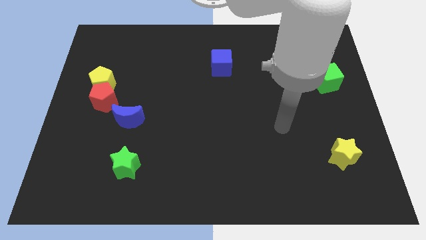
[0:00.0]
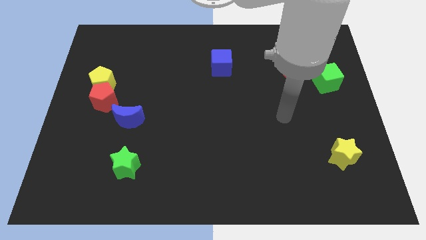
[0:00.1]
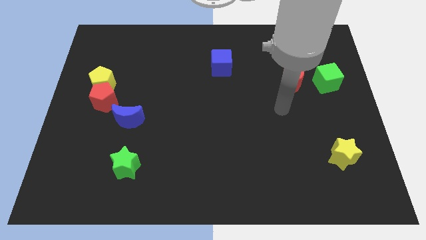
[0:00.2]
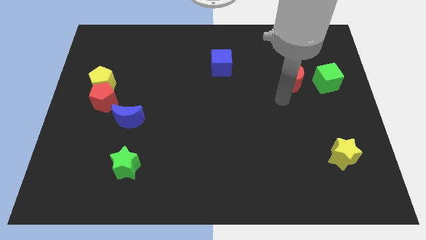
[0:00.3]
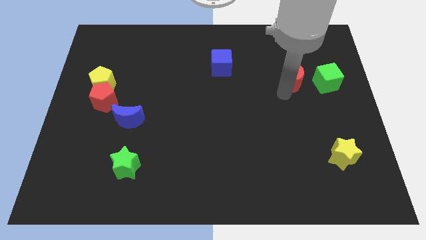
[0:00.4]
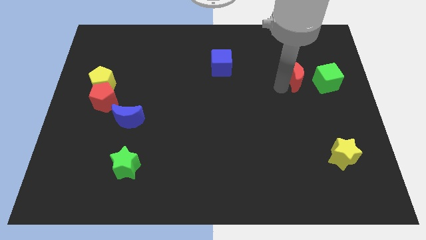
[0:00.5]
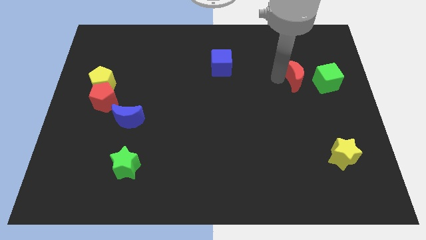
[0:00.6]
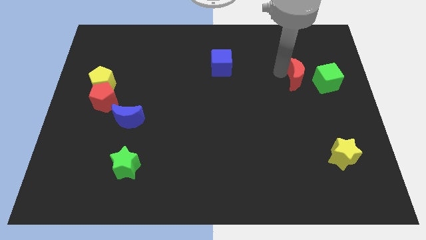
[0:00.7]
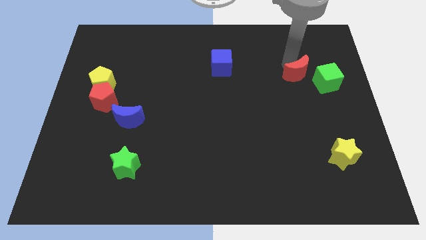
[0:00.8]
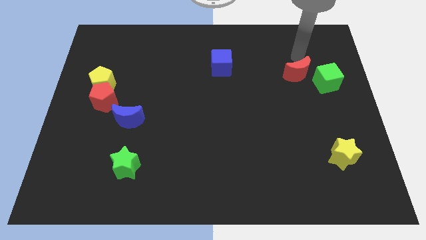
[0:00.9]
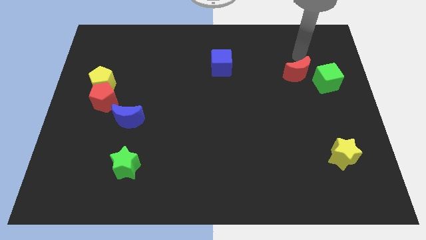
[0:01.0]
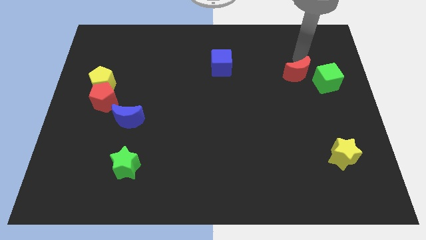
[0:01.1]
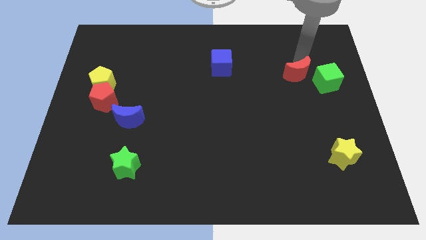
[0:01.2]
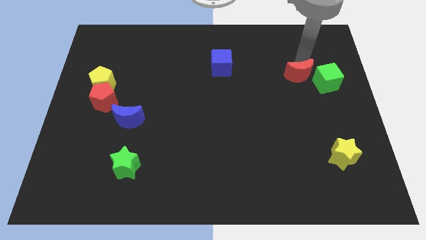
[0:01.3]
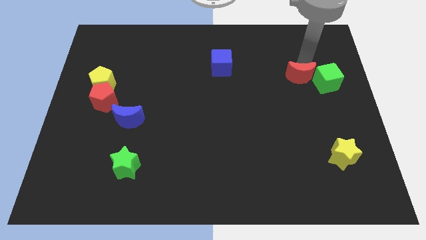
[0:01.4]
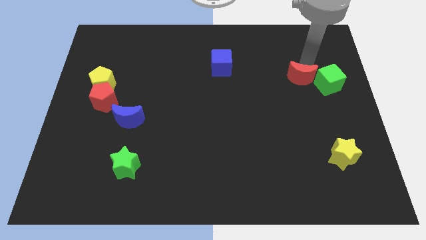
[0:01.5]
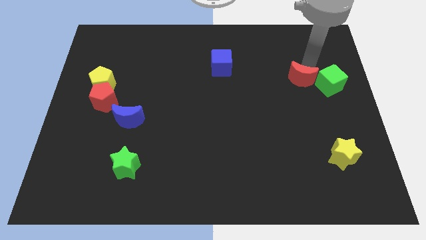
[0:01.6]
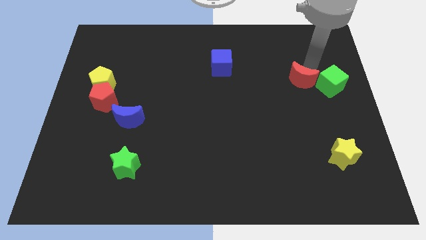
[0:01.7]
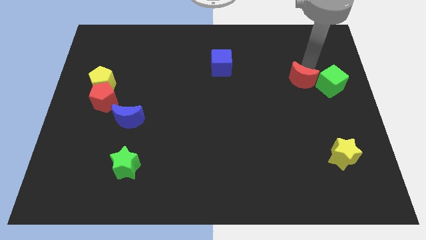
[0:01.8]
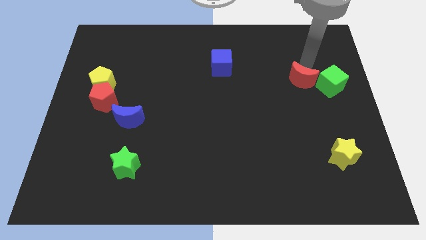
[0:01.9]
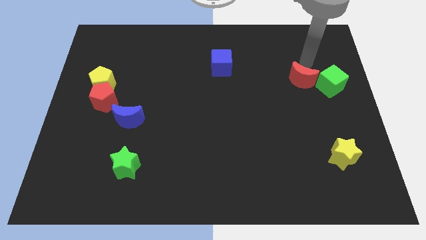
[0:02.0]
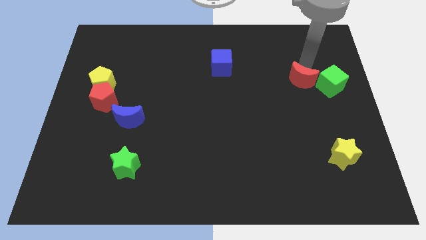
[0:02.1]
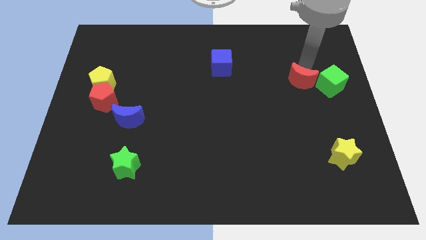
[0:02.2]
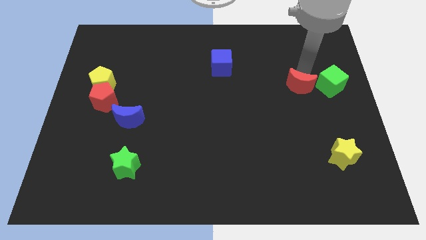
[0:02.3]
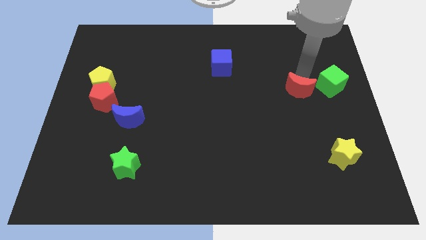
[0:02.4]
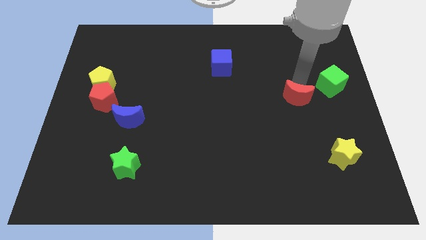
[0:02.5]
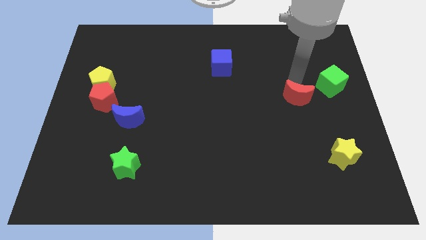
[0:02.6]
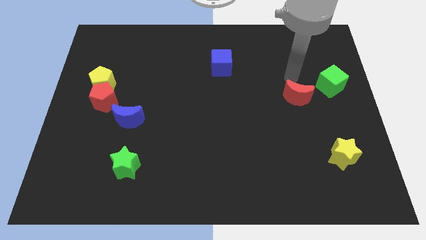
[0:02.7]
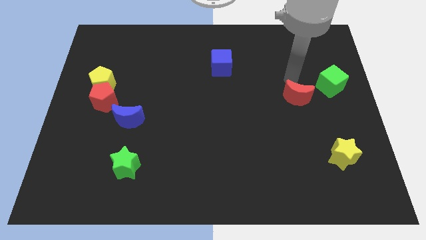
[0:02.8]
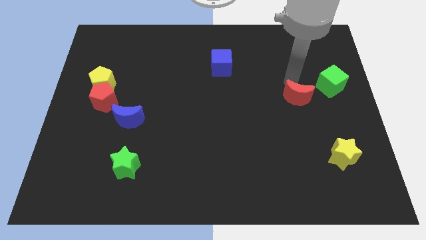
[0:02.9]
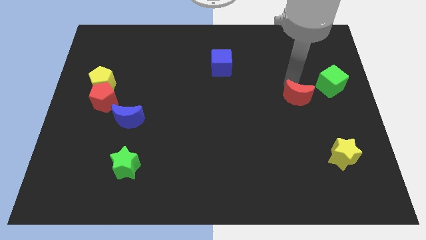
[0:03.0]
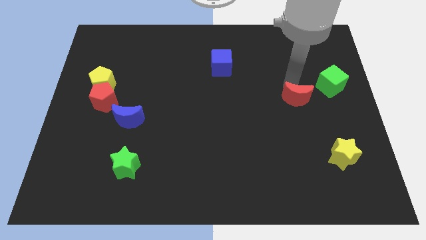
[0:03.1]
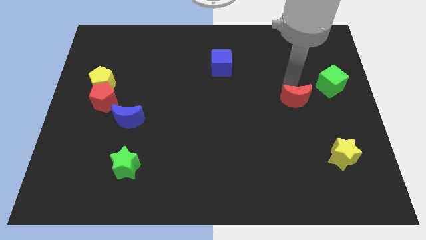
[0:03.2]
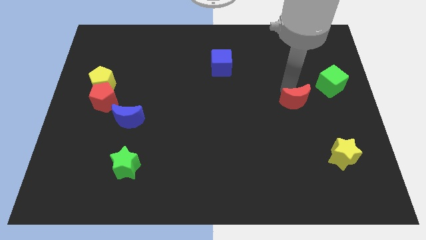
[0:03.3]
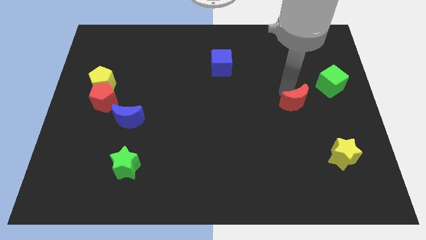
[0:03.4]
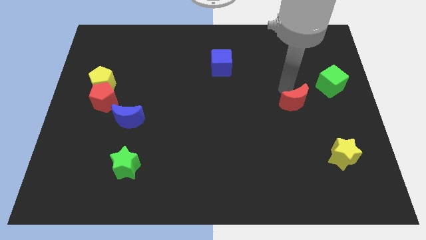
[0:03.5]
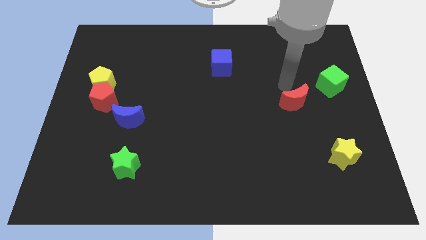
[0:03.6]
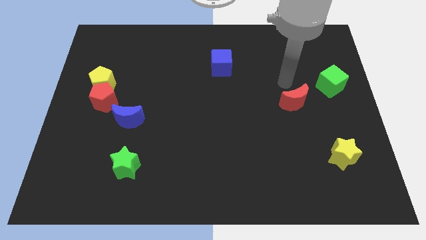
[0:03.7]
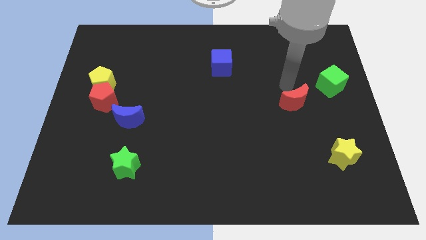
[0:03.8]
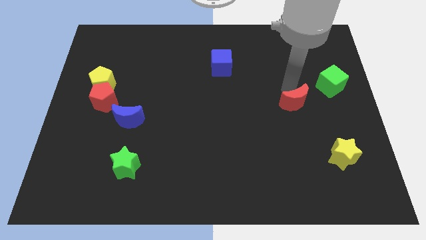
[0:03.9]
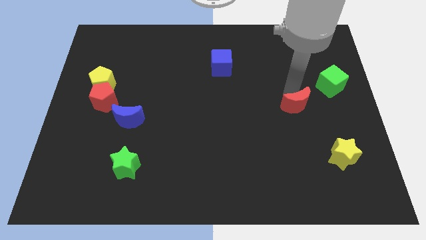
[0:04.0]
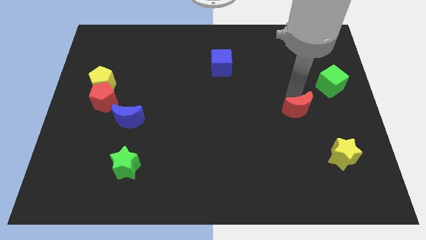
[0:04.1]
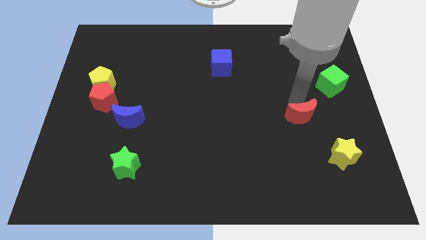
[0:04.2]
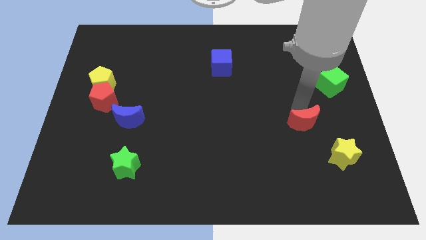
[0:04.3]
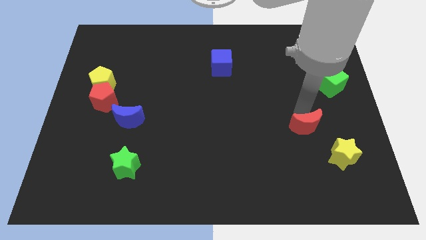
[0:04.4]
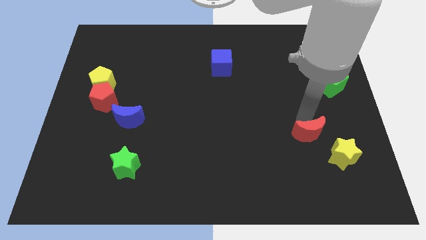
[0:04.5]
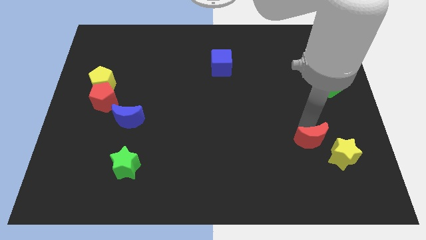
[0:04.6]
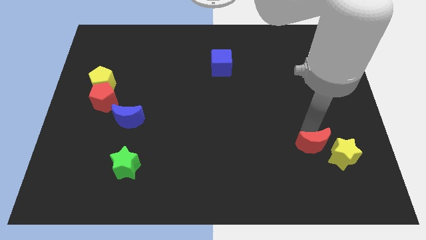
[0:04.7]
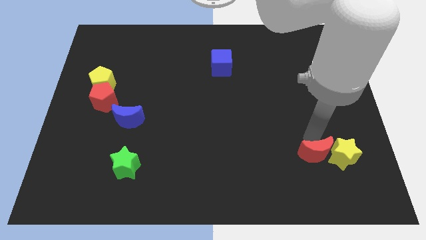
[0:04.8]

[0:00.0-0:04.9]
put the red moon to the bottom left side of the yellow star

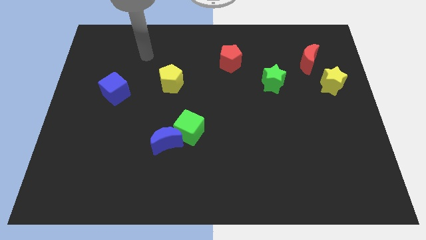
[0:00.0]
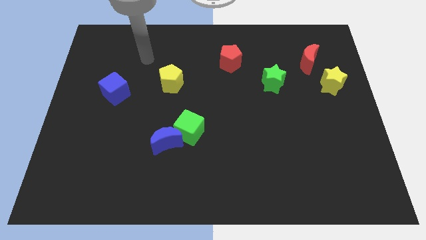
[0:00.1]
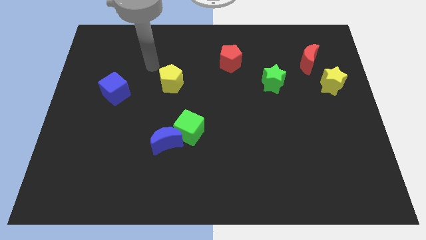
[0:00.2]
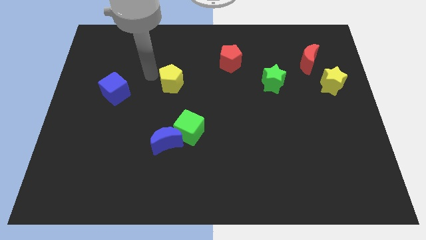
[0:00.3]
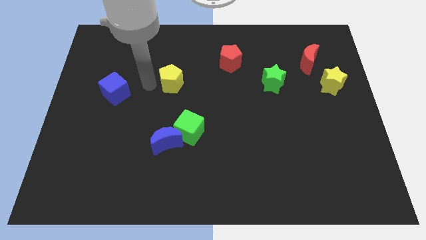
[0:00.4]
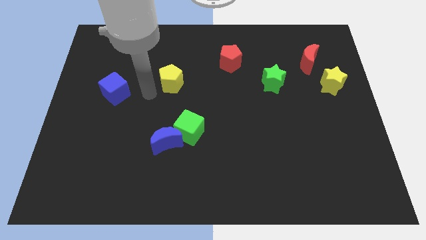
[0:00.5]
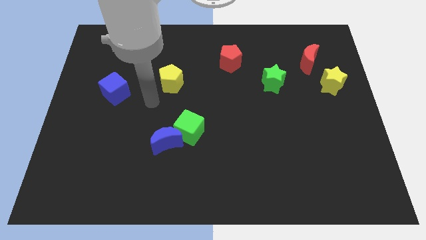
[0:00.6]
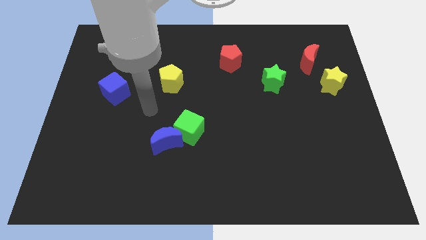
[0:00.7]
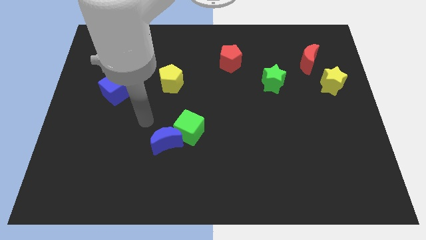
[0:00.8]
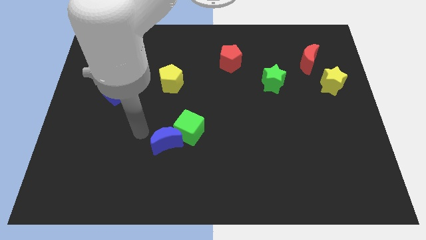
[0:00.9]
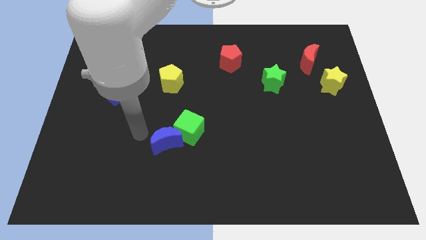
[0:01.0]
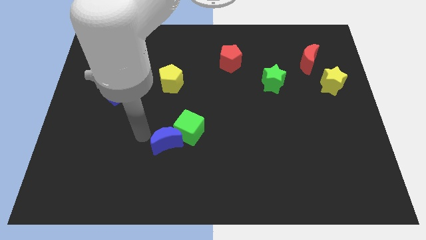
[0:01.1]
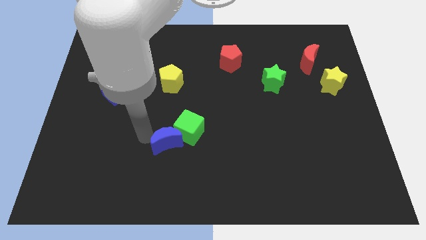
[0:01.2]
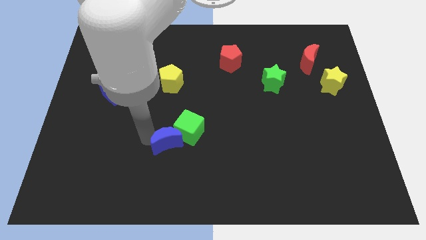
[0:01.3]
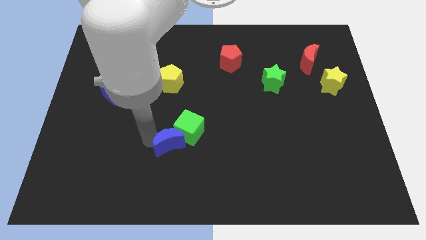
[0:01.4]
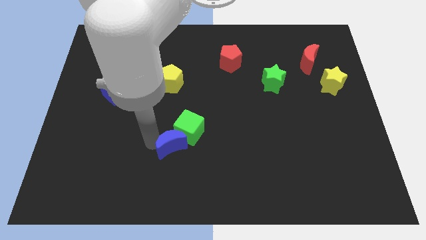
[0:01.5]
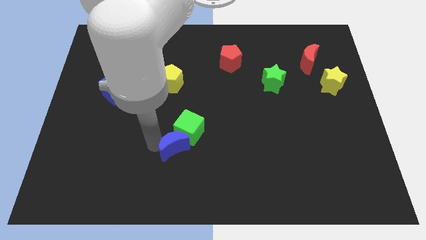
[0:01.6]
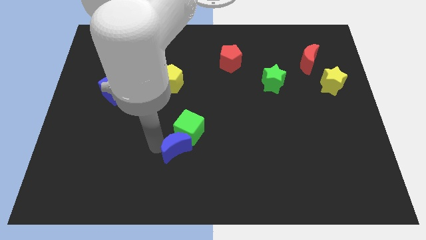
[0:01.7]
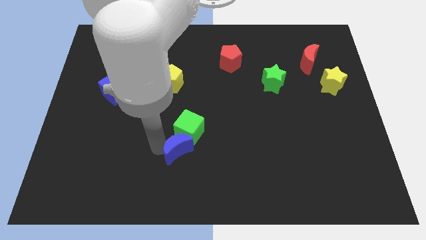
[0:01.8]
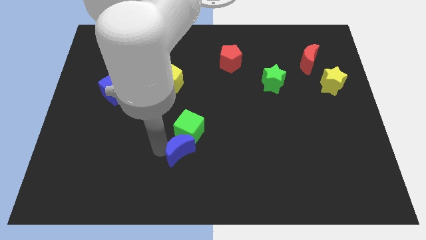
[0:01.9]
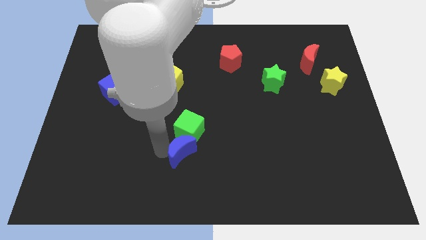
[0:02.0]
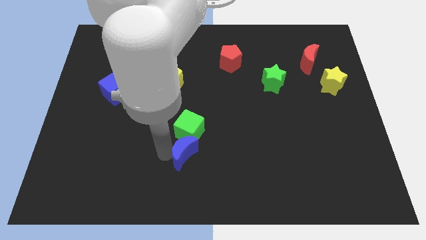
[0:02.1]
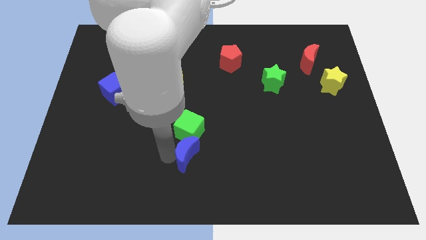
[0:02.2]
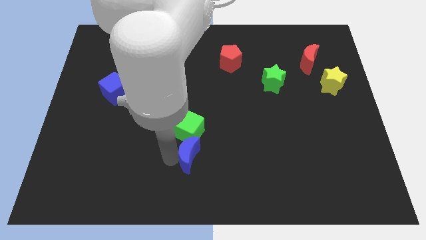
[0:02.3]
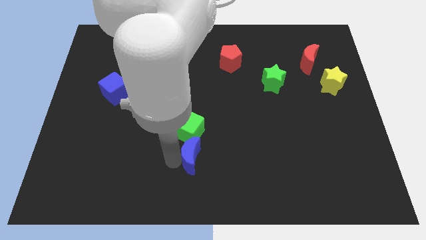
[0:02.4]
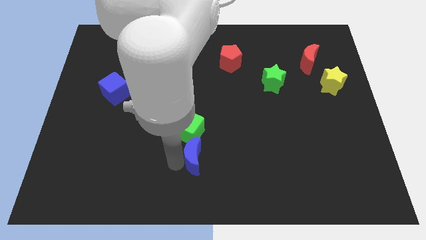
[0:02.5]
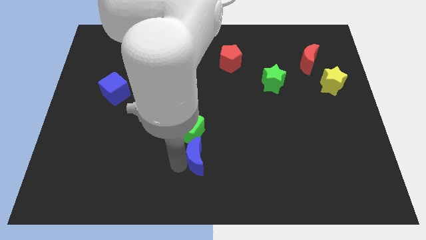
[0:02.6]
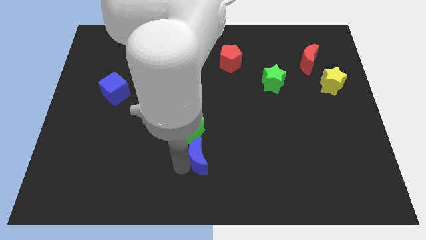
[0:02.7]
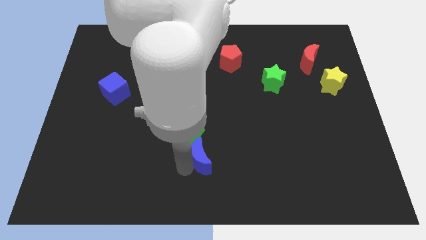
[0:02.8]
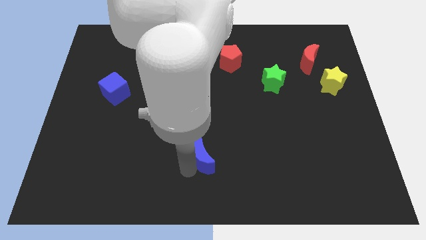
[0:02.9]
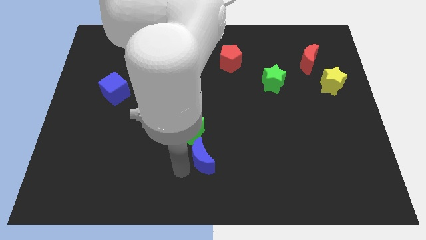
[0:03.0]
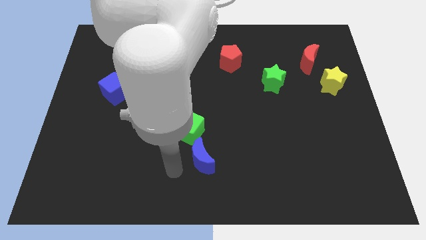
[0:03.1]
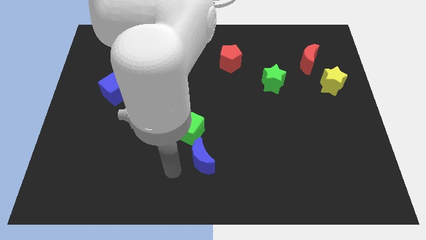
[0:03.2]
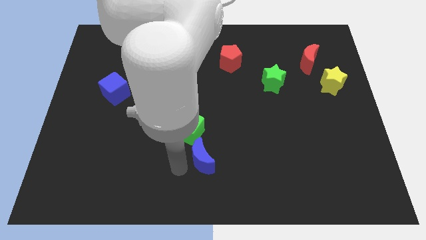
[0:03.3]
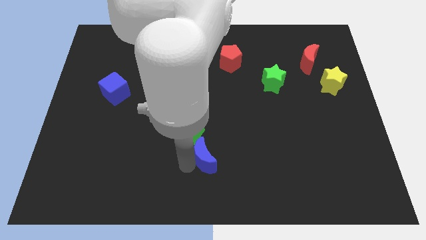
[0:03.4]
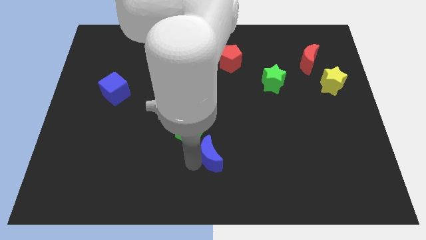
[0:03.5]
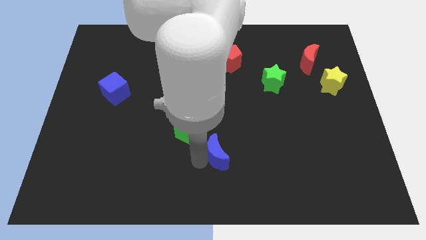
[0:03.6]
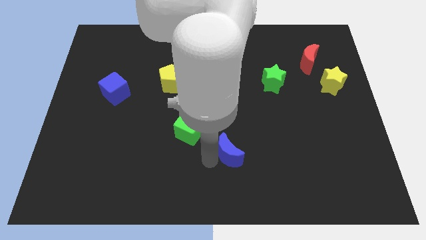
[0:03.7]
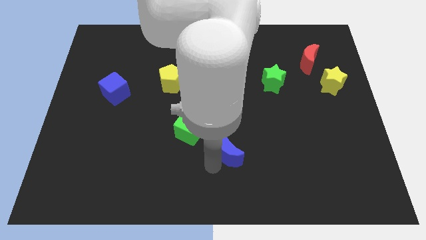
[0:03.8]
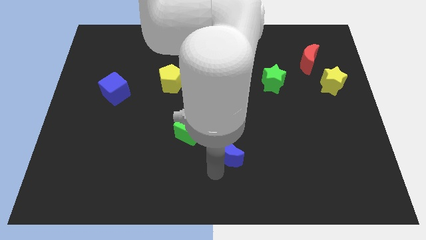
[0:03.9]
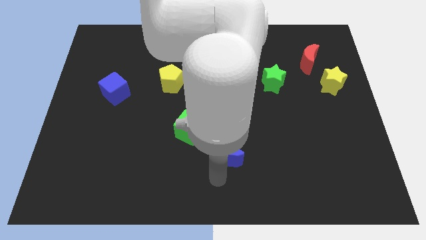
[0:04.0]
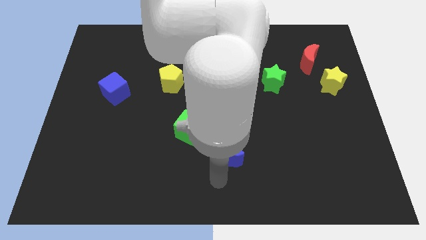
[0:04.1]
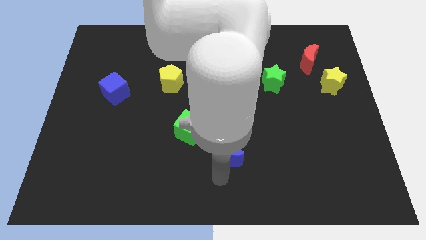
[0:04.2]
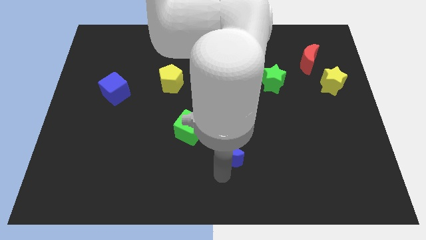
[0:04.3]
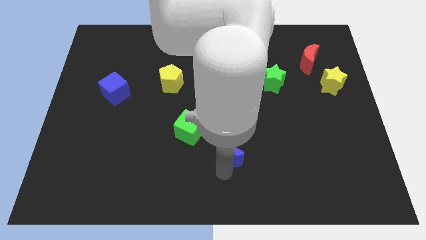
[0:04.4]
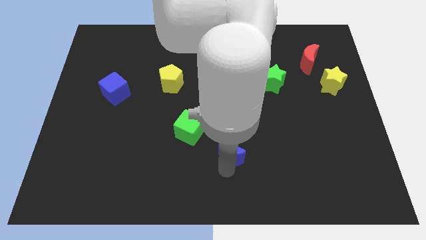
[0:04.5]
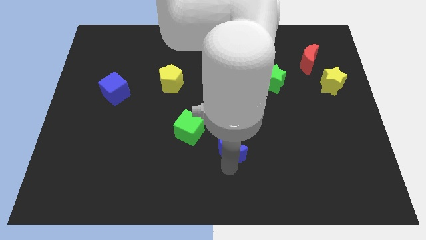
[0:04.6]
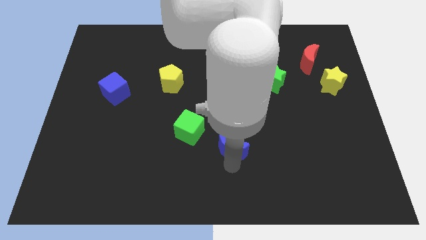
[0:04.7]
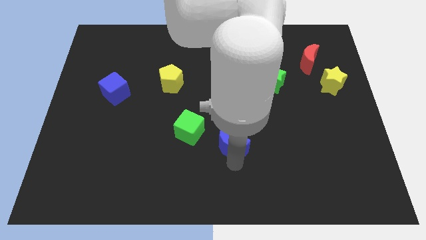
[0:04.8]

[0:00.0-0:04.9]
push the blue moon to the right of the green cube
